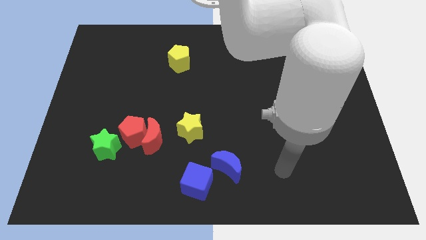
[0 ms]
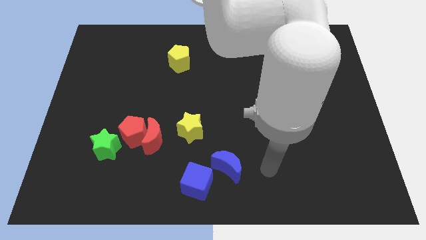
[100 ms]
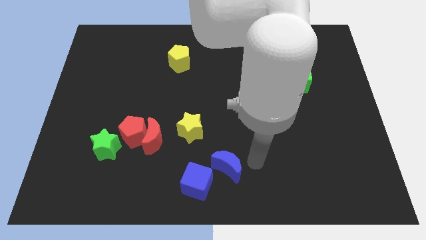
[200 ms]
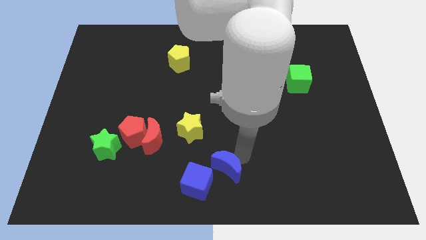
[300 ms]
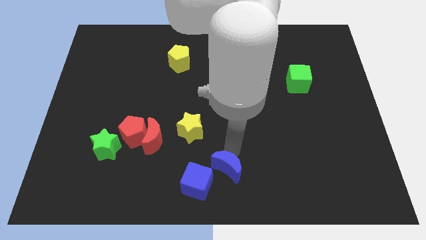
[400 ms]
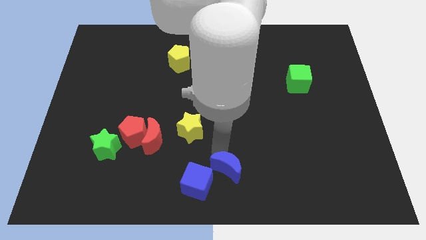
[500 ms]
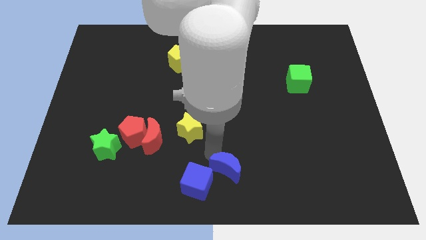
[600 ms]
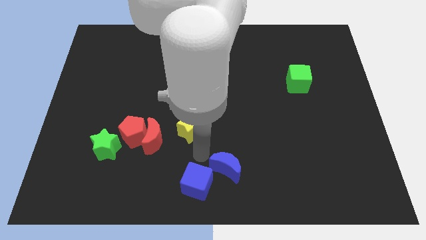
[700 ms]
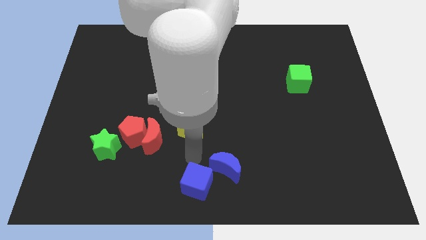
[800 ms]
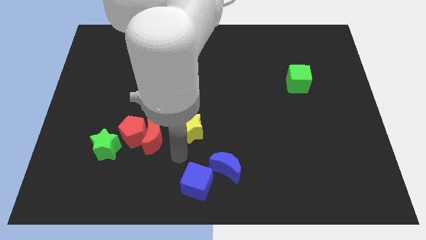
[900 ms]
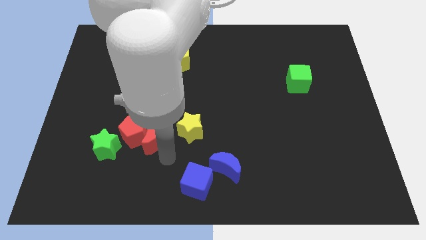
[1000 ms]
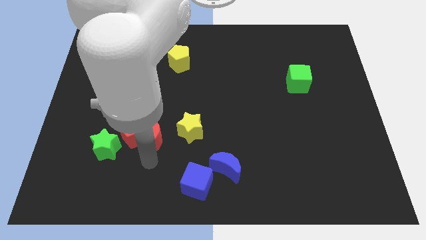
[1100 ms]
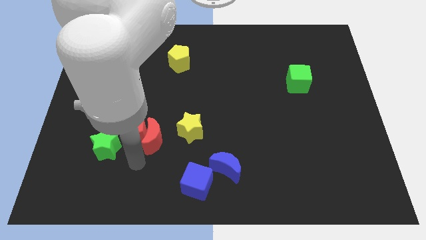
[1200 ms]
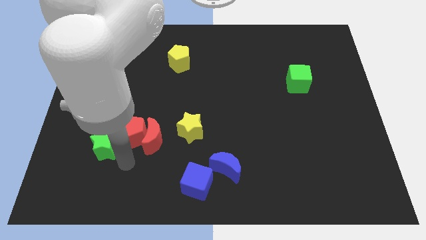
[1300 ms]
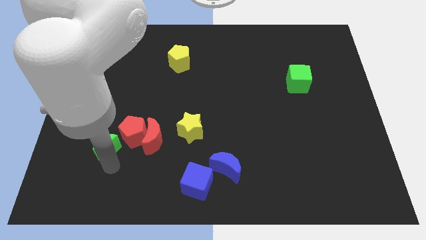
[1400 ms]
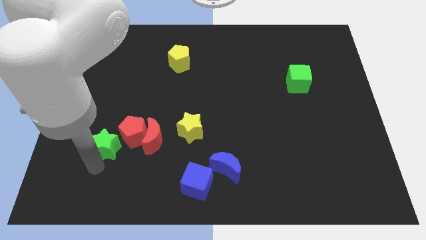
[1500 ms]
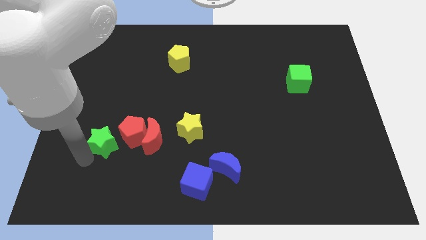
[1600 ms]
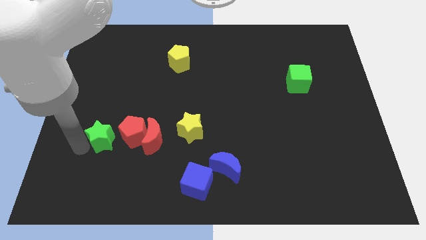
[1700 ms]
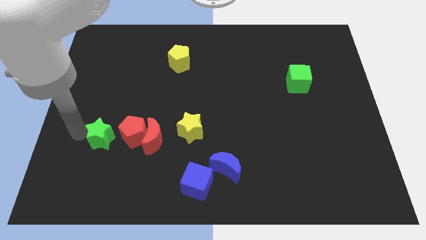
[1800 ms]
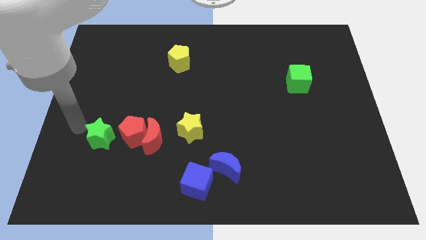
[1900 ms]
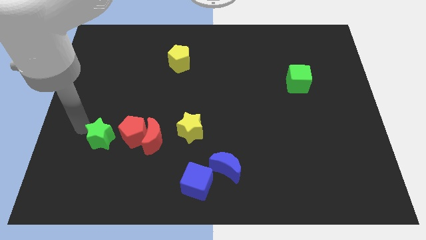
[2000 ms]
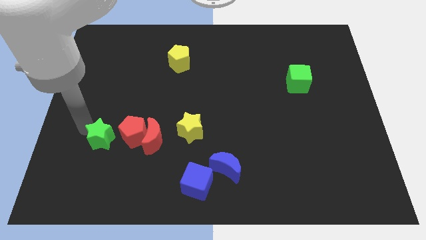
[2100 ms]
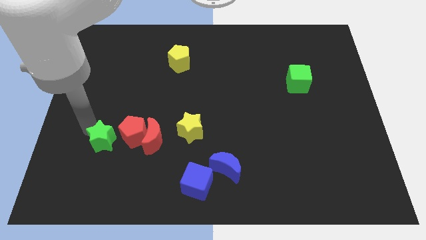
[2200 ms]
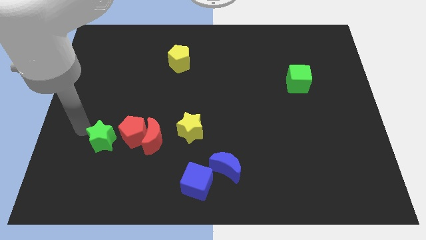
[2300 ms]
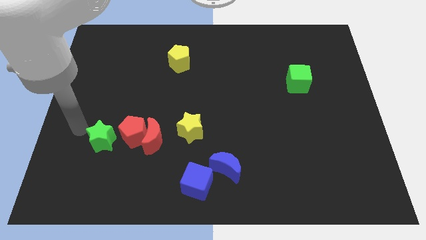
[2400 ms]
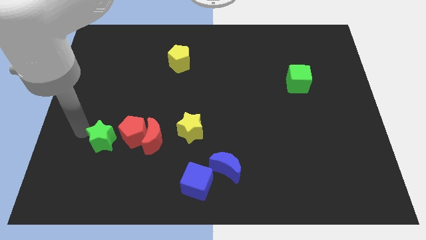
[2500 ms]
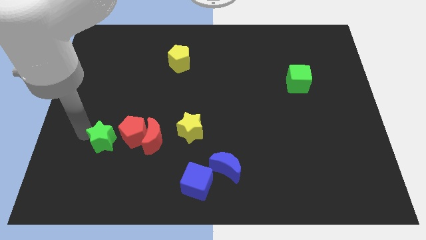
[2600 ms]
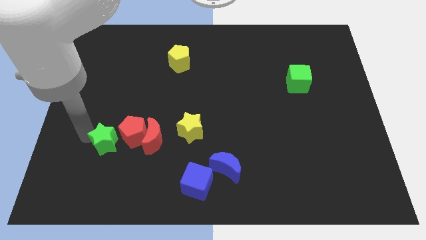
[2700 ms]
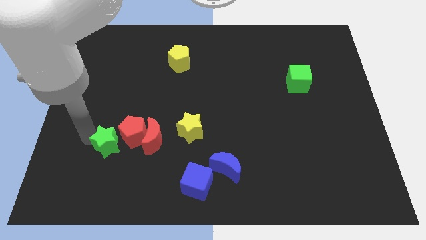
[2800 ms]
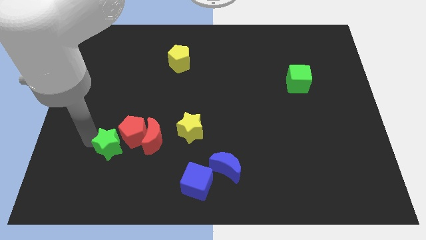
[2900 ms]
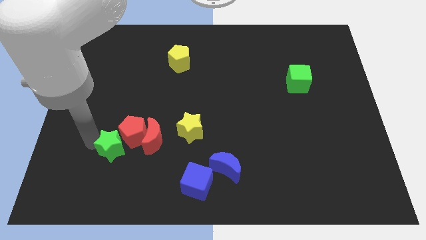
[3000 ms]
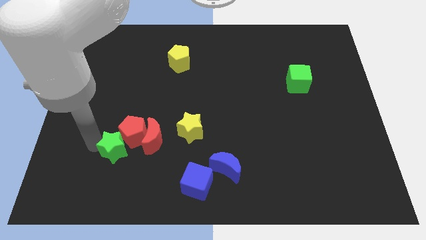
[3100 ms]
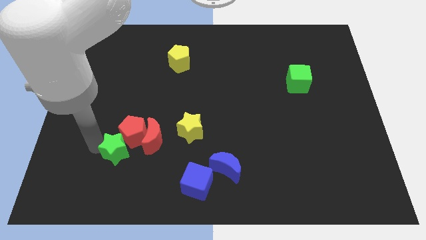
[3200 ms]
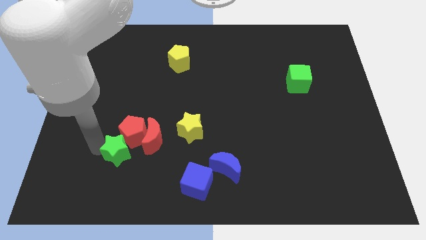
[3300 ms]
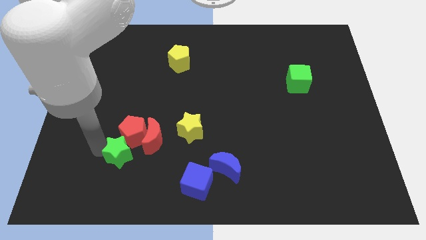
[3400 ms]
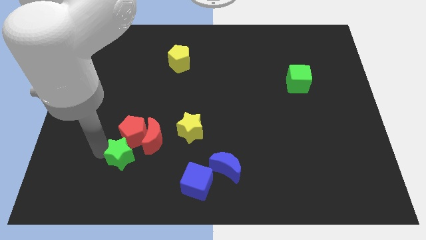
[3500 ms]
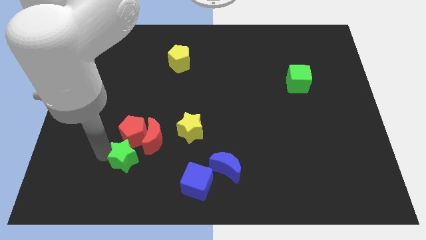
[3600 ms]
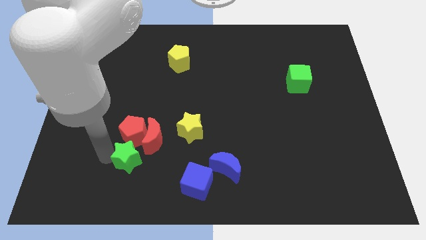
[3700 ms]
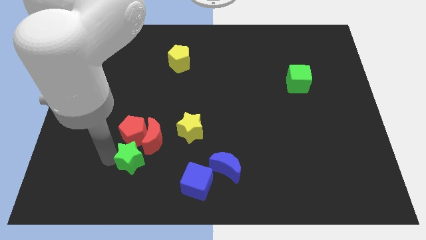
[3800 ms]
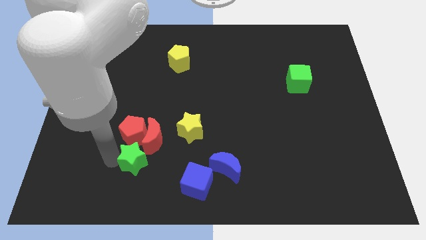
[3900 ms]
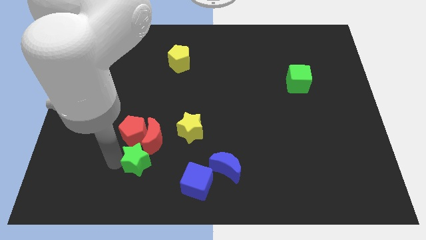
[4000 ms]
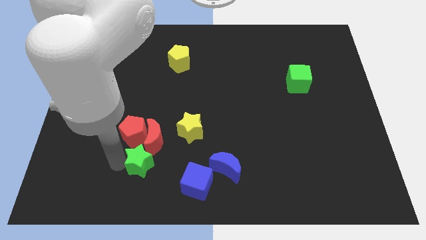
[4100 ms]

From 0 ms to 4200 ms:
push the green star to the right a little

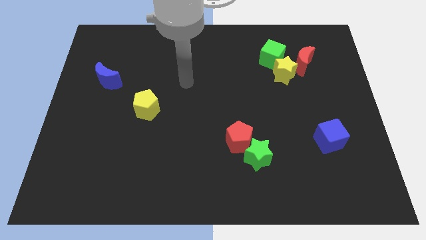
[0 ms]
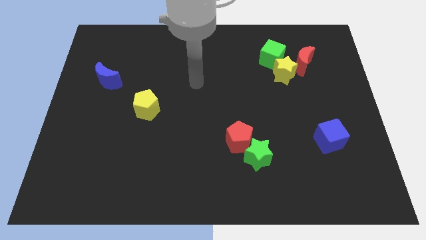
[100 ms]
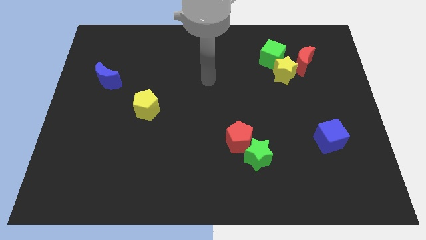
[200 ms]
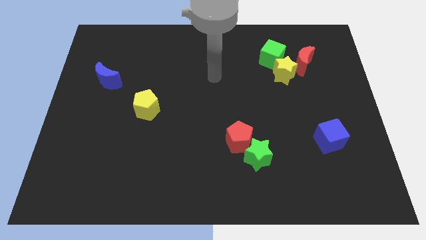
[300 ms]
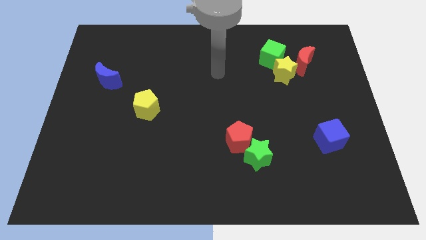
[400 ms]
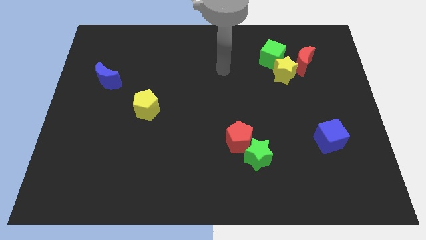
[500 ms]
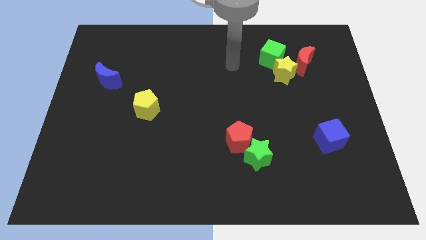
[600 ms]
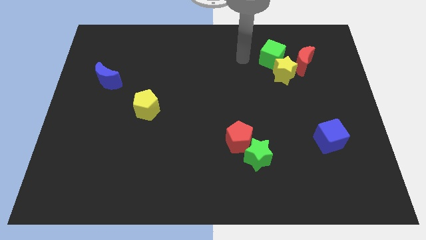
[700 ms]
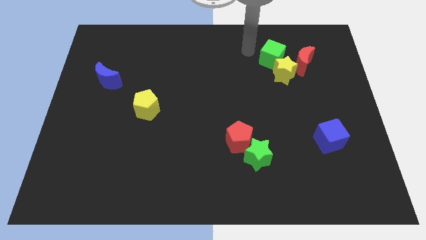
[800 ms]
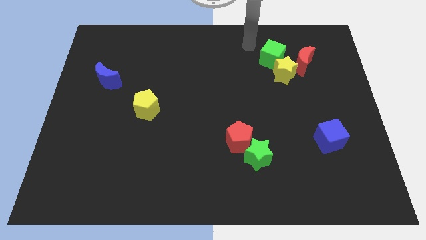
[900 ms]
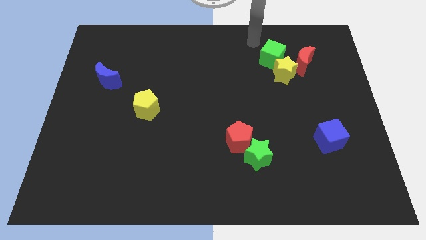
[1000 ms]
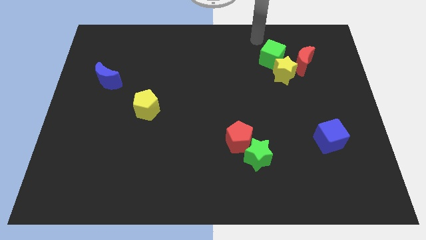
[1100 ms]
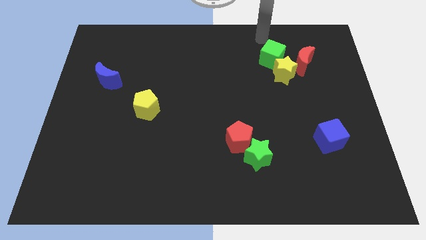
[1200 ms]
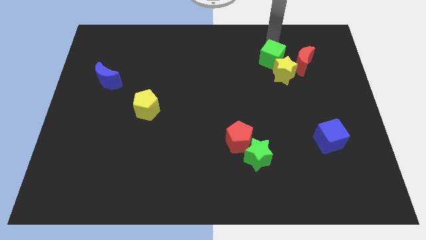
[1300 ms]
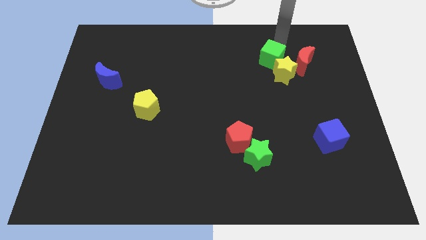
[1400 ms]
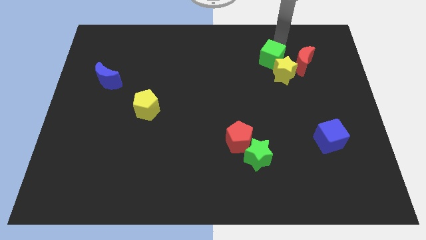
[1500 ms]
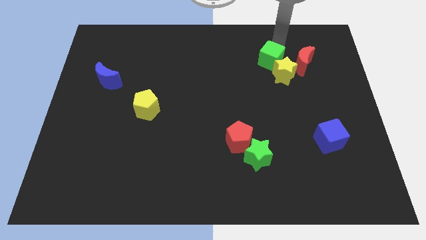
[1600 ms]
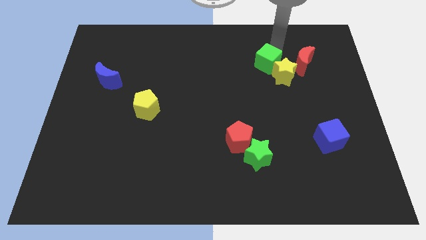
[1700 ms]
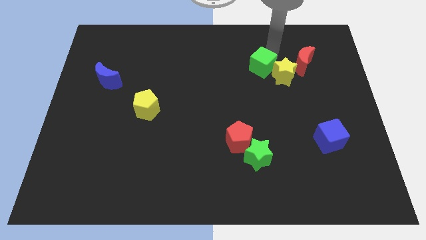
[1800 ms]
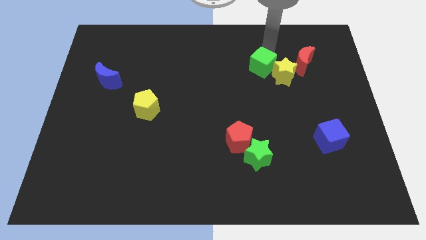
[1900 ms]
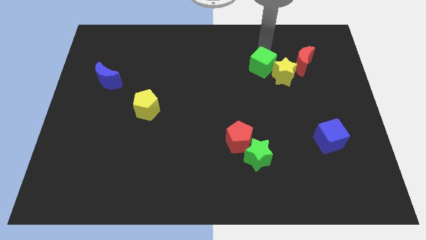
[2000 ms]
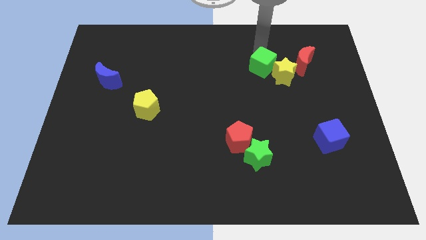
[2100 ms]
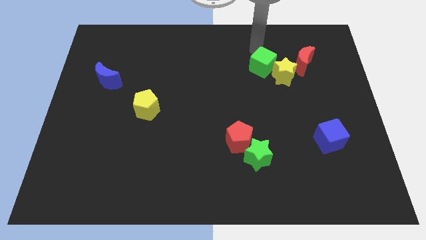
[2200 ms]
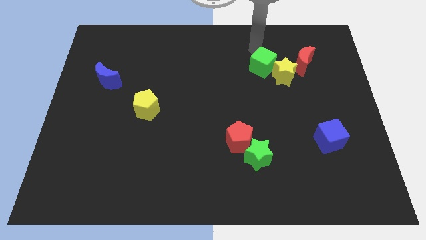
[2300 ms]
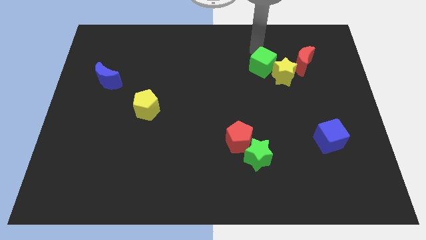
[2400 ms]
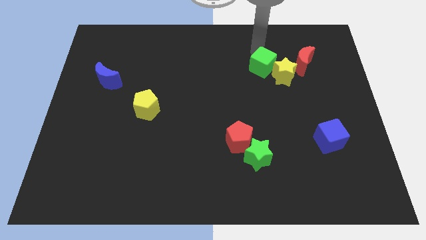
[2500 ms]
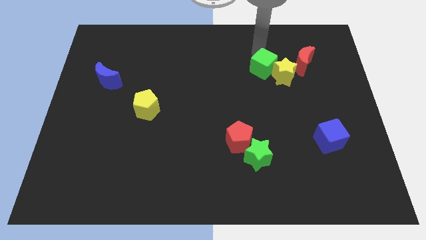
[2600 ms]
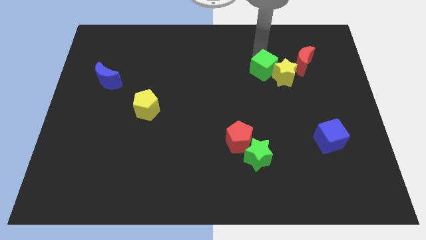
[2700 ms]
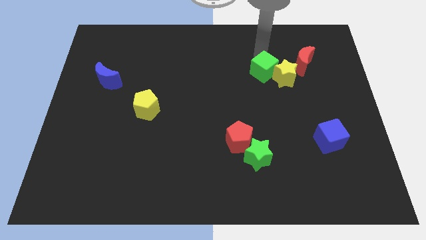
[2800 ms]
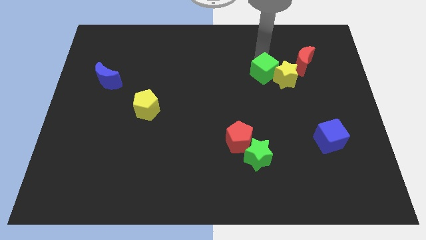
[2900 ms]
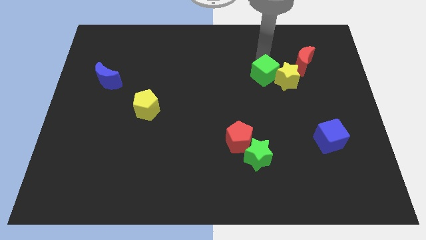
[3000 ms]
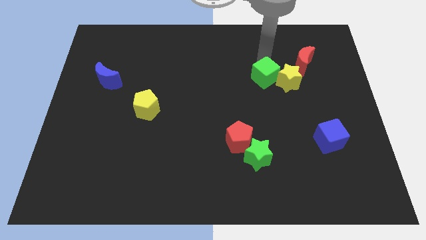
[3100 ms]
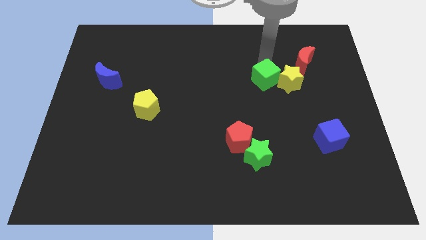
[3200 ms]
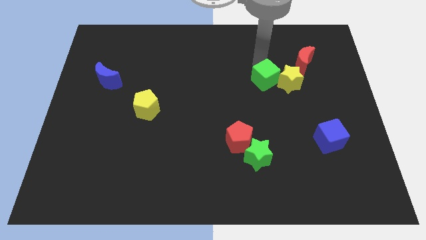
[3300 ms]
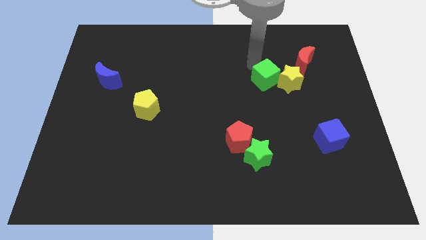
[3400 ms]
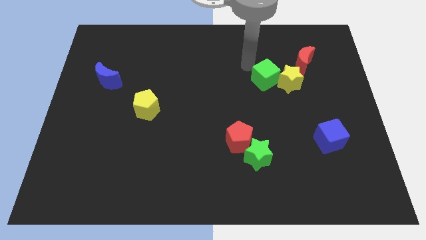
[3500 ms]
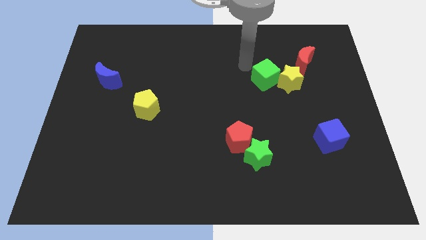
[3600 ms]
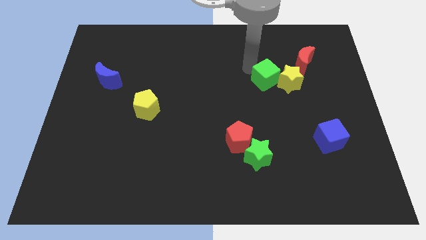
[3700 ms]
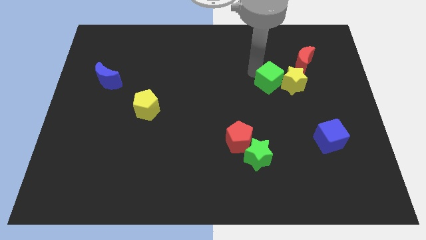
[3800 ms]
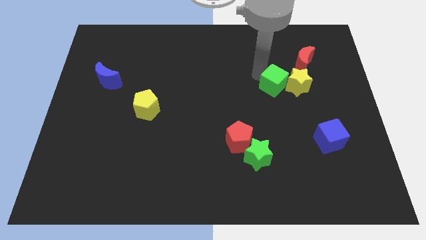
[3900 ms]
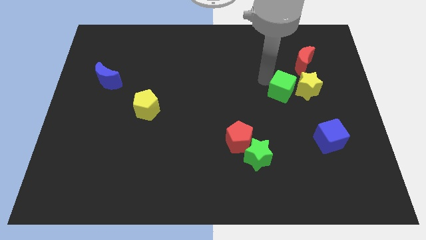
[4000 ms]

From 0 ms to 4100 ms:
move the green cube somewhat downwards and to the right
